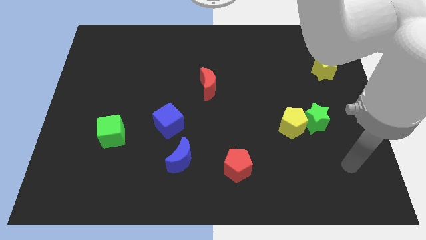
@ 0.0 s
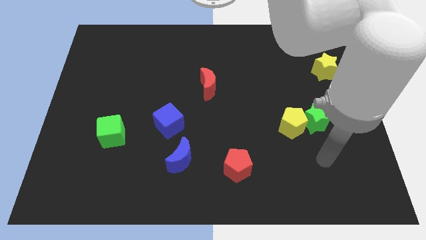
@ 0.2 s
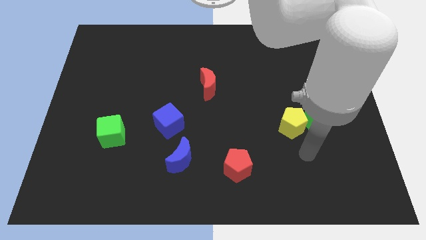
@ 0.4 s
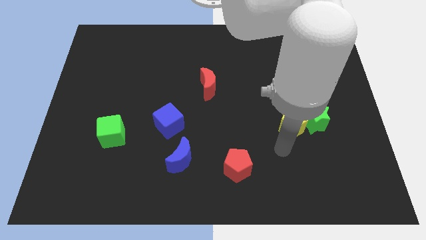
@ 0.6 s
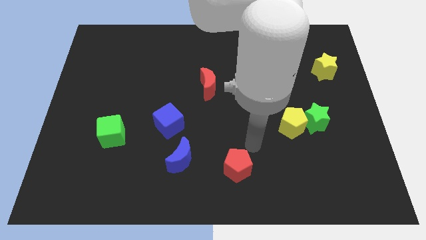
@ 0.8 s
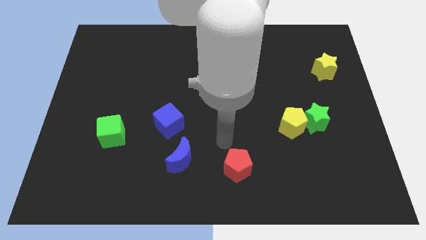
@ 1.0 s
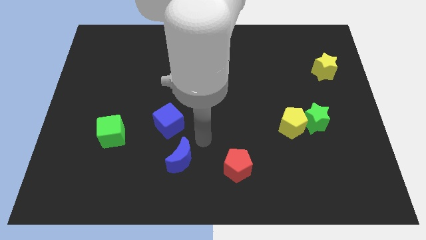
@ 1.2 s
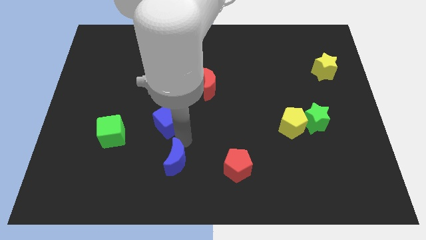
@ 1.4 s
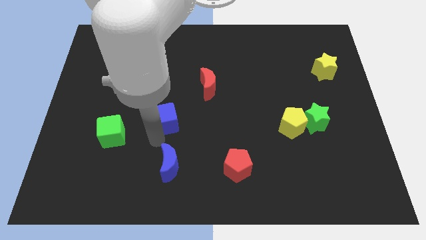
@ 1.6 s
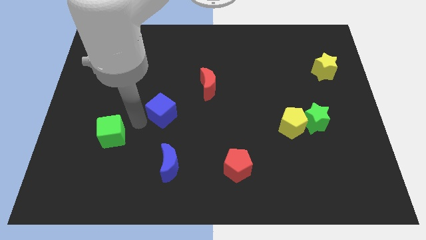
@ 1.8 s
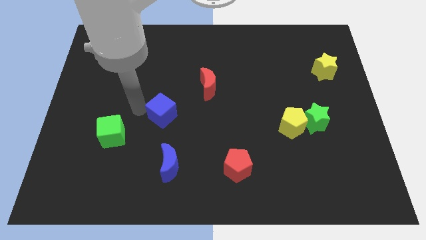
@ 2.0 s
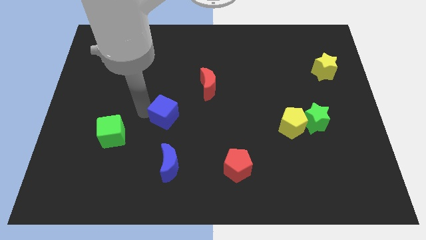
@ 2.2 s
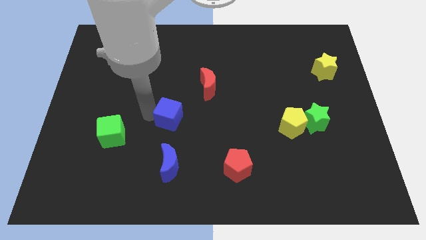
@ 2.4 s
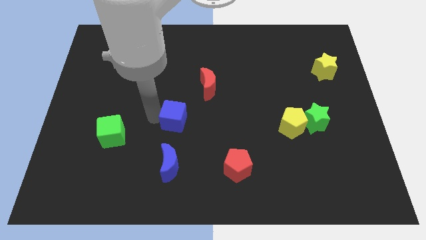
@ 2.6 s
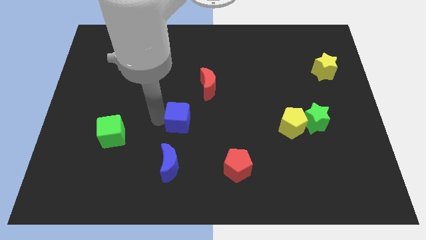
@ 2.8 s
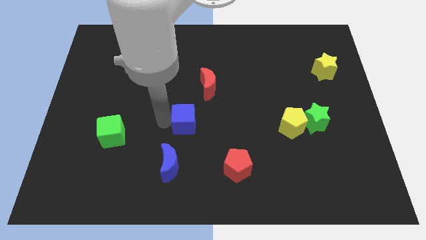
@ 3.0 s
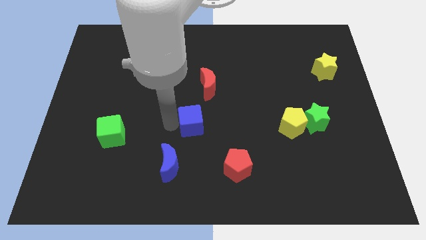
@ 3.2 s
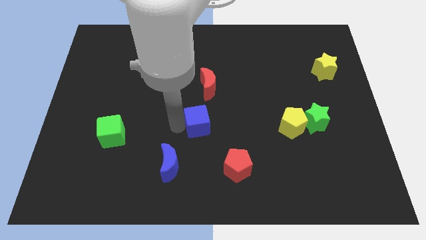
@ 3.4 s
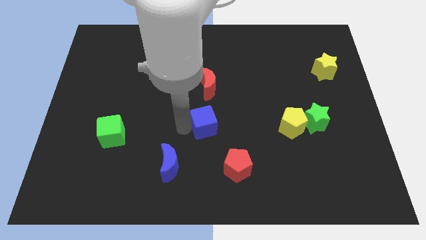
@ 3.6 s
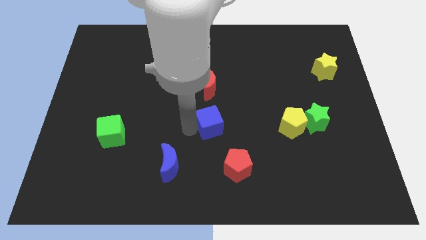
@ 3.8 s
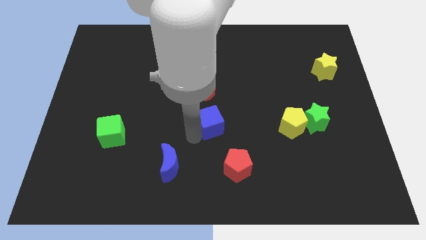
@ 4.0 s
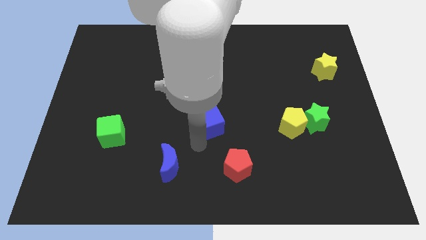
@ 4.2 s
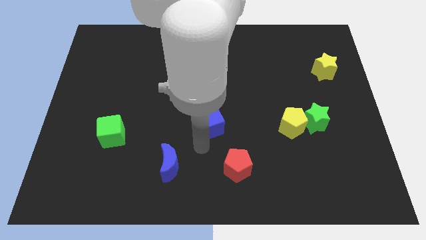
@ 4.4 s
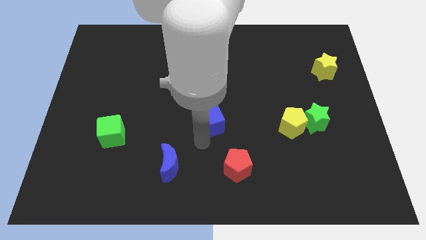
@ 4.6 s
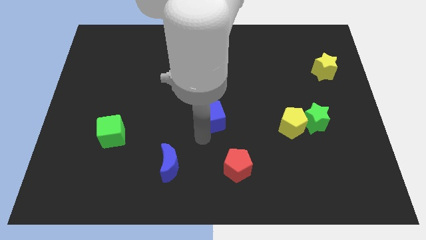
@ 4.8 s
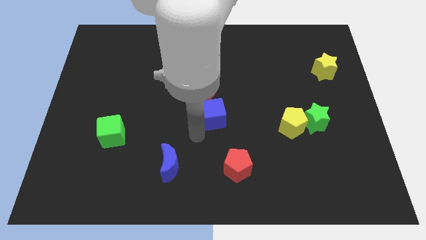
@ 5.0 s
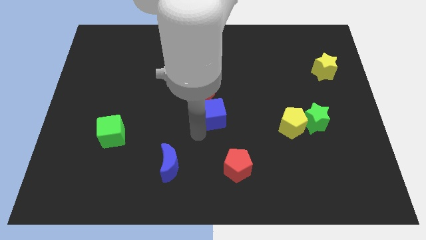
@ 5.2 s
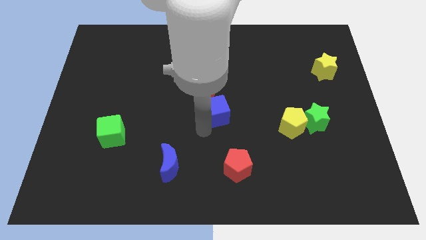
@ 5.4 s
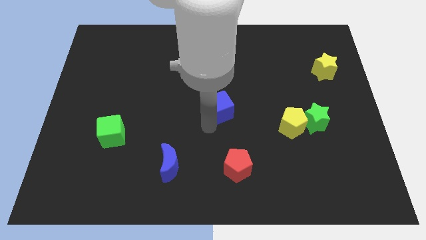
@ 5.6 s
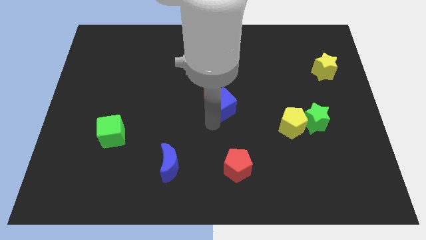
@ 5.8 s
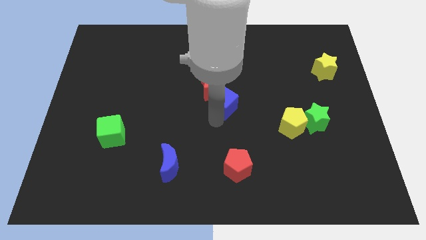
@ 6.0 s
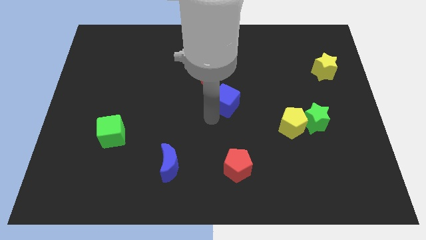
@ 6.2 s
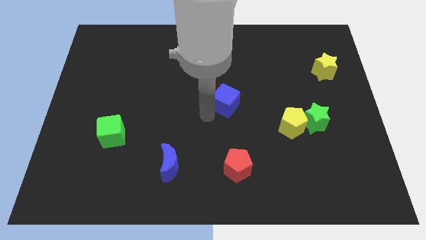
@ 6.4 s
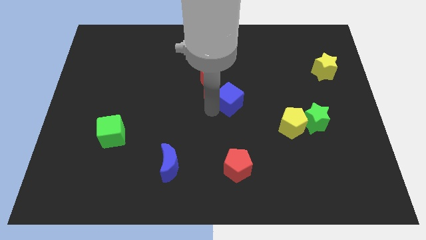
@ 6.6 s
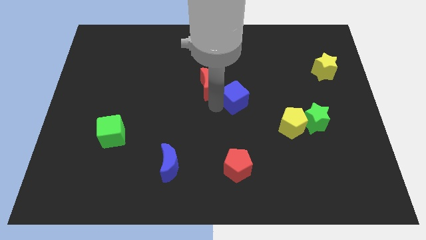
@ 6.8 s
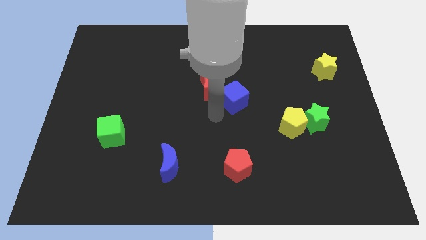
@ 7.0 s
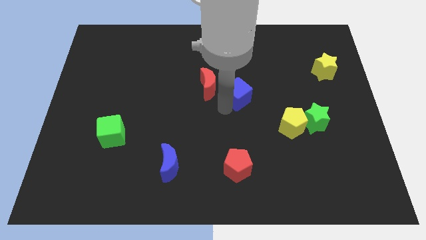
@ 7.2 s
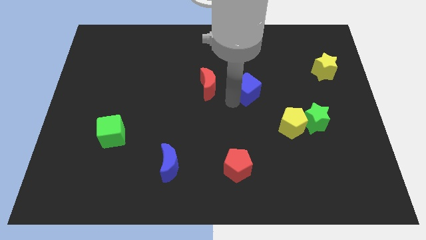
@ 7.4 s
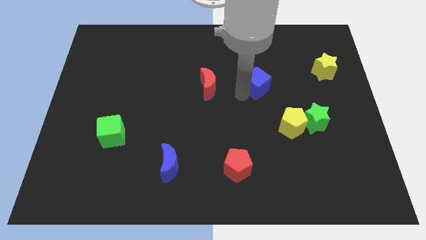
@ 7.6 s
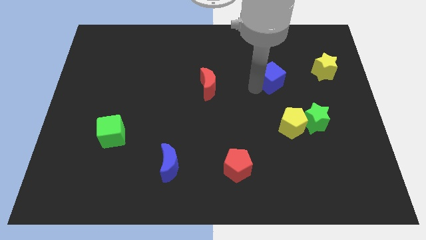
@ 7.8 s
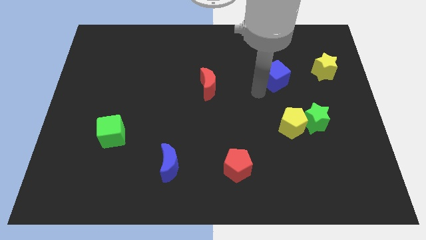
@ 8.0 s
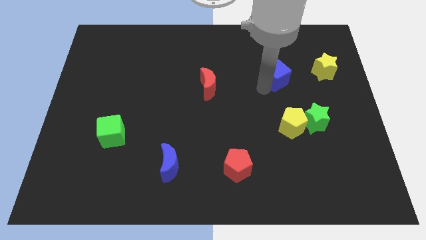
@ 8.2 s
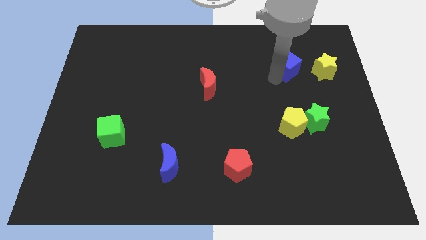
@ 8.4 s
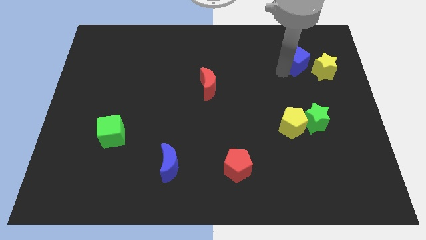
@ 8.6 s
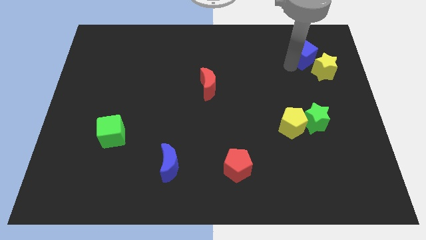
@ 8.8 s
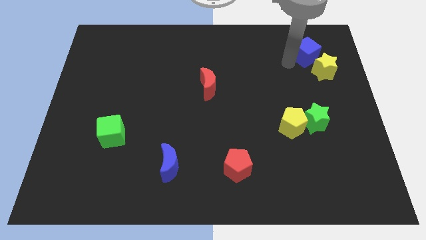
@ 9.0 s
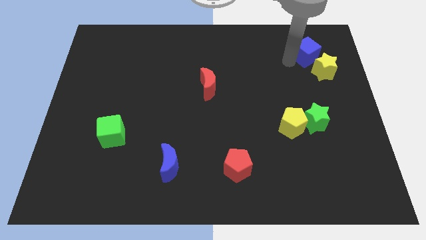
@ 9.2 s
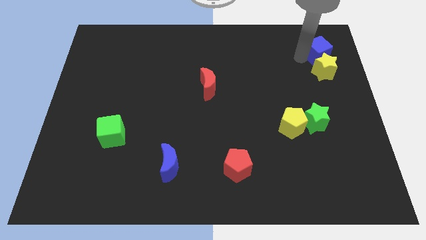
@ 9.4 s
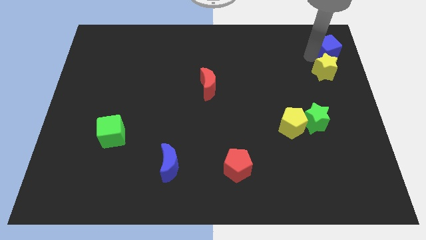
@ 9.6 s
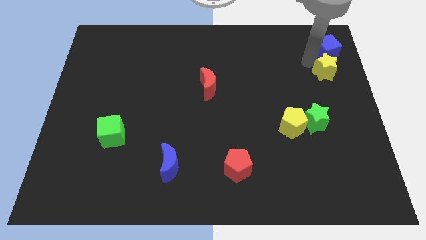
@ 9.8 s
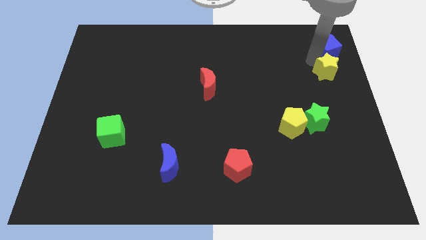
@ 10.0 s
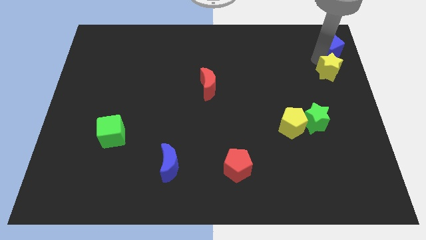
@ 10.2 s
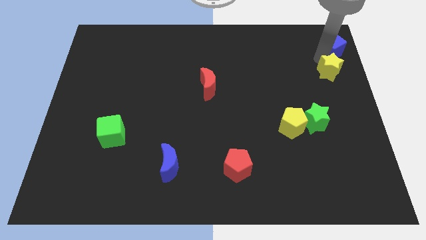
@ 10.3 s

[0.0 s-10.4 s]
put the blue cube to the top right
